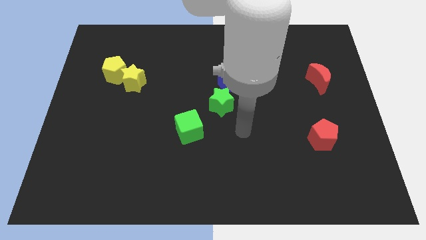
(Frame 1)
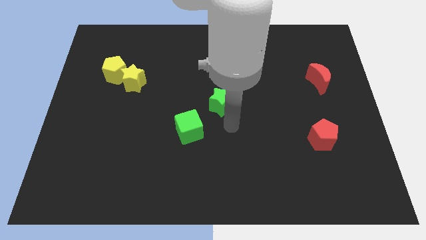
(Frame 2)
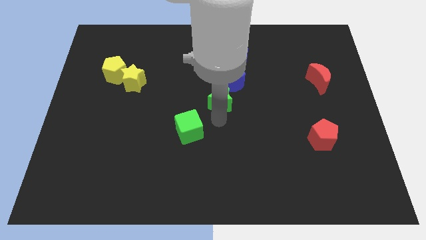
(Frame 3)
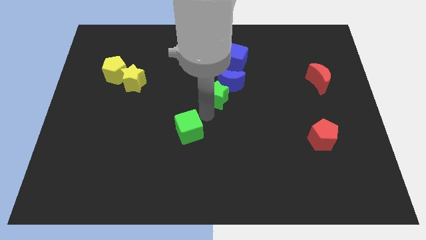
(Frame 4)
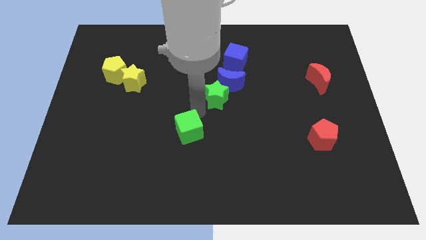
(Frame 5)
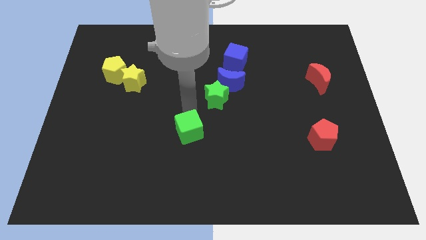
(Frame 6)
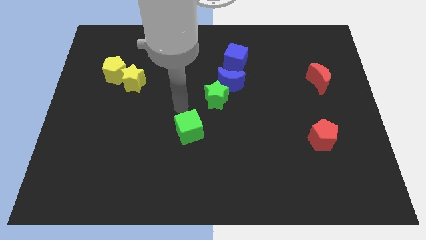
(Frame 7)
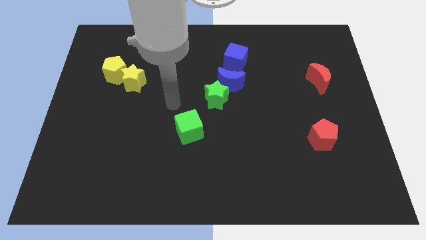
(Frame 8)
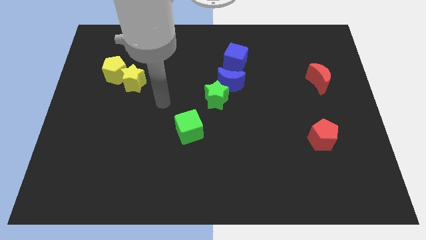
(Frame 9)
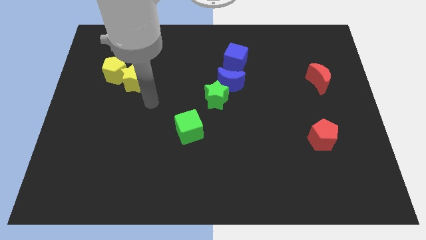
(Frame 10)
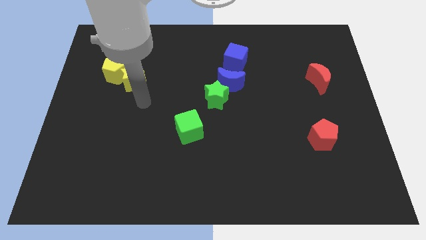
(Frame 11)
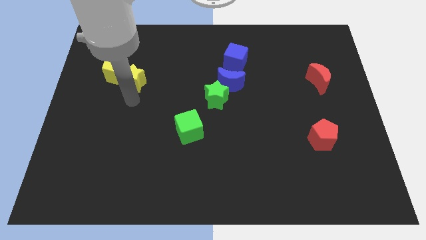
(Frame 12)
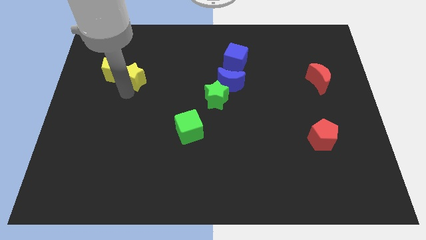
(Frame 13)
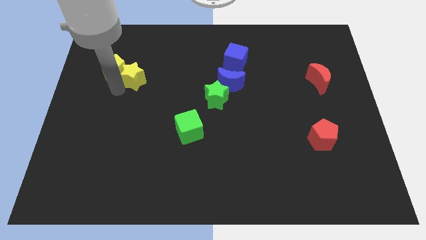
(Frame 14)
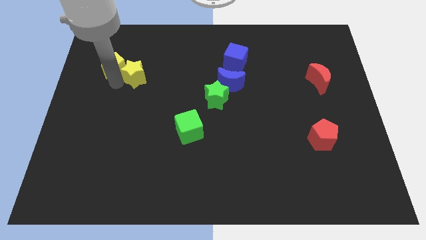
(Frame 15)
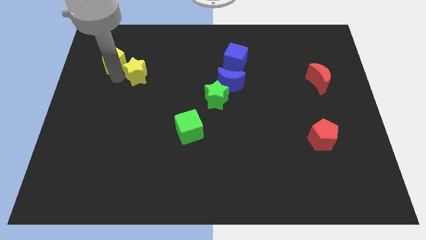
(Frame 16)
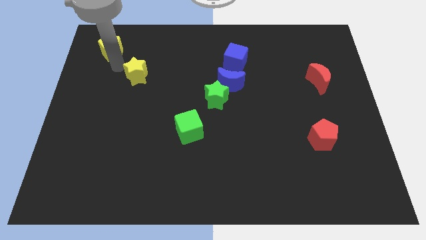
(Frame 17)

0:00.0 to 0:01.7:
pull the yellow star apart from the yellow pentagon

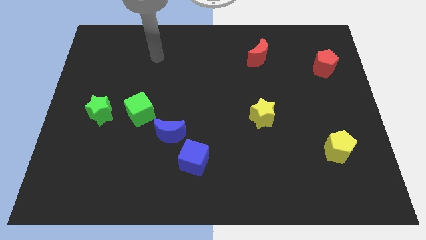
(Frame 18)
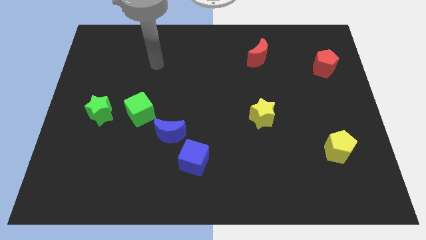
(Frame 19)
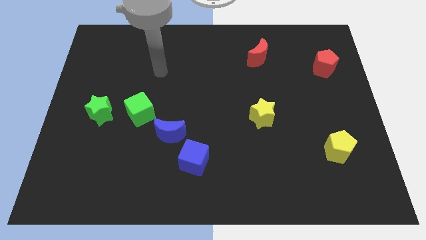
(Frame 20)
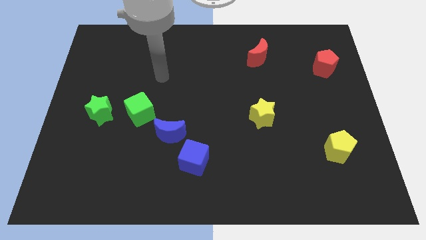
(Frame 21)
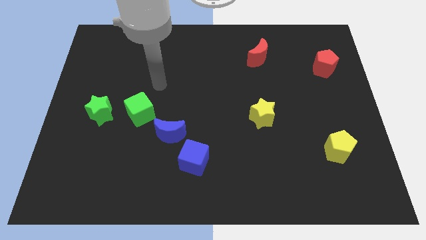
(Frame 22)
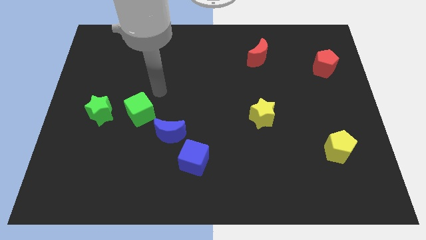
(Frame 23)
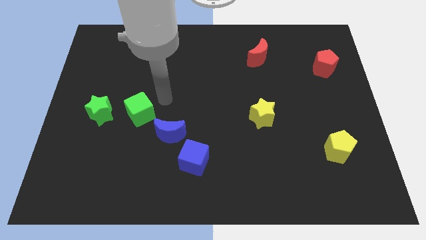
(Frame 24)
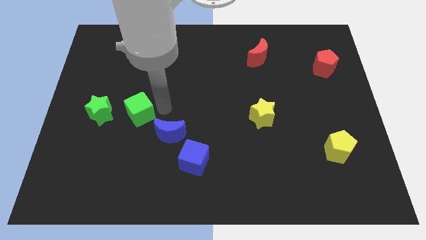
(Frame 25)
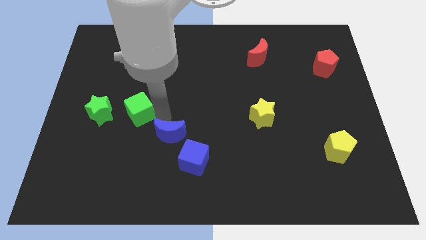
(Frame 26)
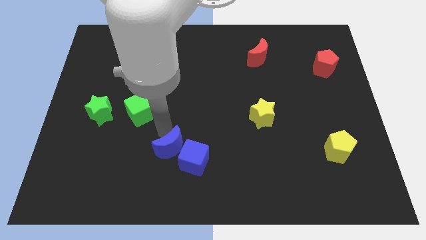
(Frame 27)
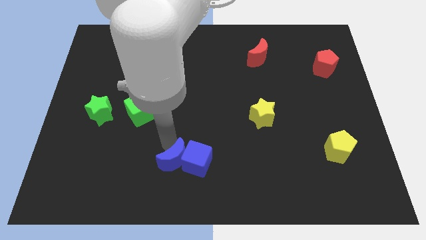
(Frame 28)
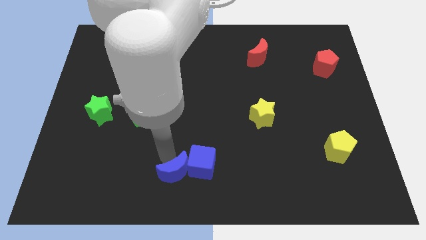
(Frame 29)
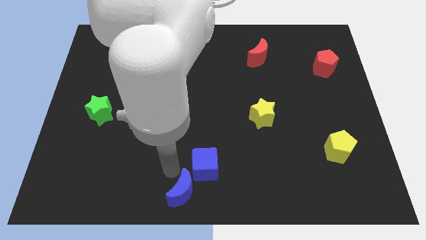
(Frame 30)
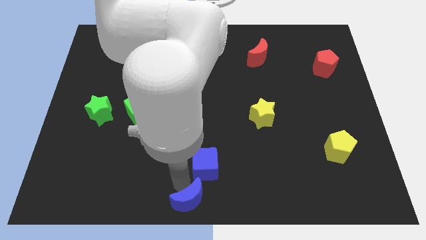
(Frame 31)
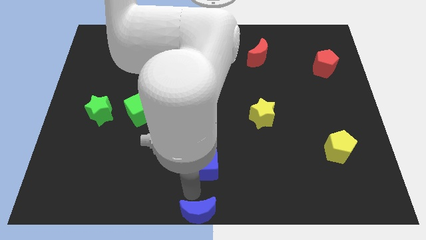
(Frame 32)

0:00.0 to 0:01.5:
move the blue cube away from the blue moon

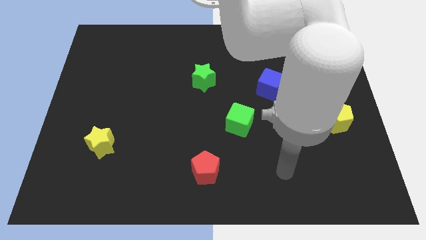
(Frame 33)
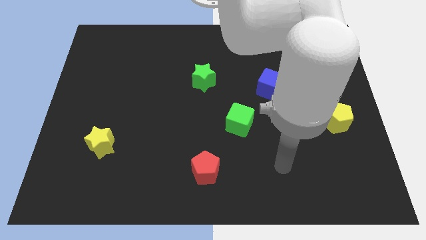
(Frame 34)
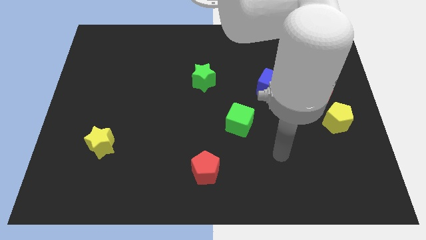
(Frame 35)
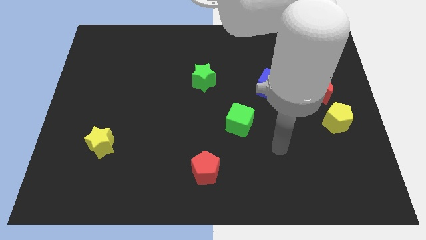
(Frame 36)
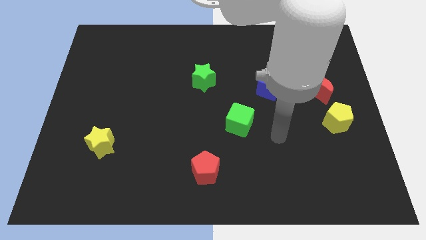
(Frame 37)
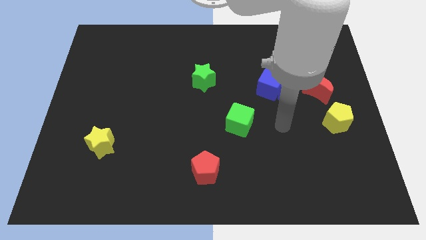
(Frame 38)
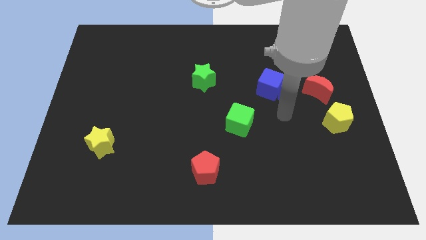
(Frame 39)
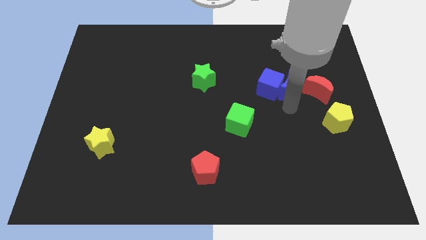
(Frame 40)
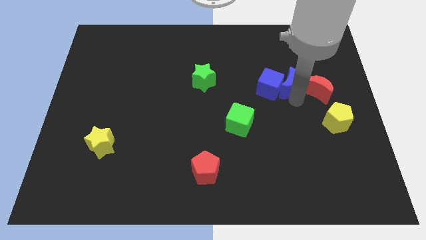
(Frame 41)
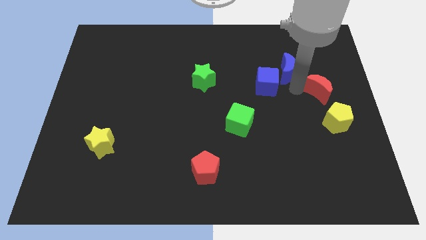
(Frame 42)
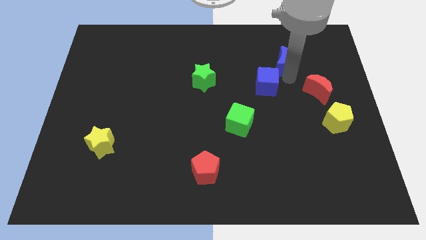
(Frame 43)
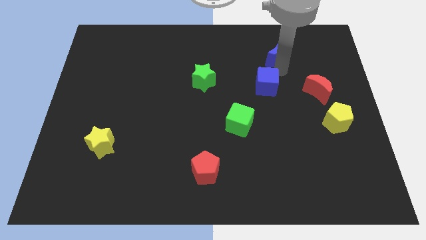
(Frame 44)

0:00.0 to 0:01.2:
separate the blue cube from the blue moon

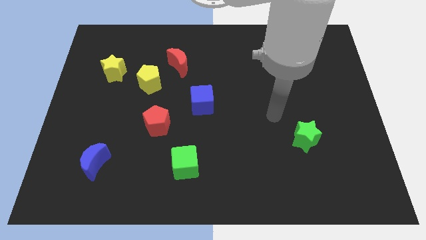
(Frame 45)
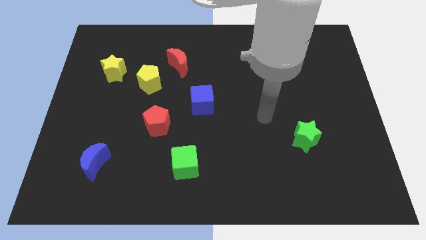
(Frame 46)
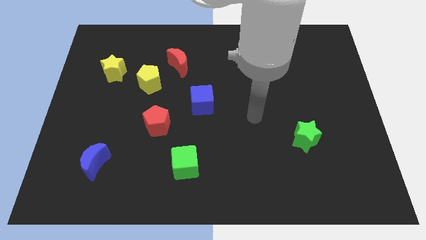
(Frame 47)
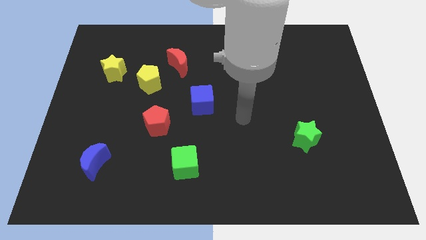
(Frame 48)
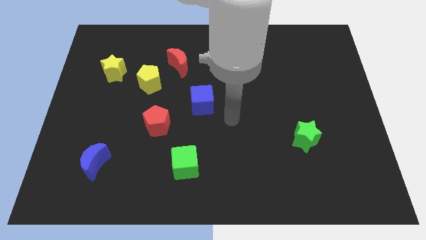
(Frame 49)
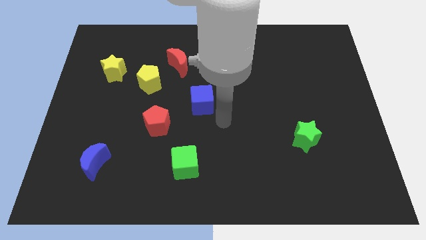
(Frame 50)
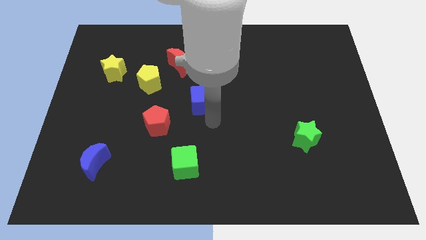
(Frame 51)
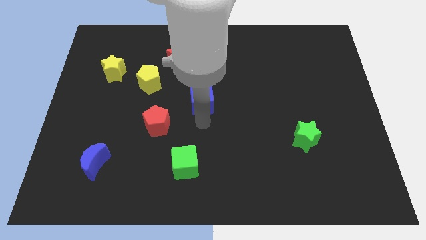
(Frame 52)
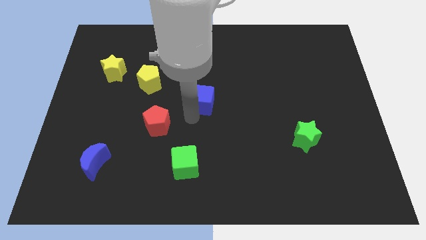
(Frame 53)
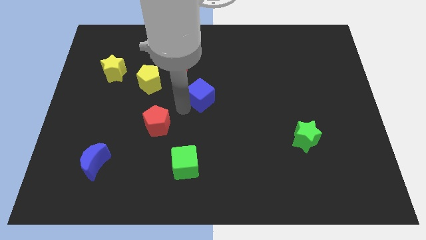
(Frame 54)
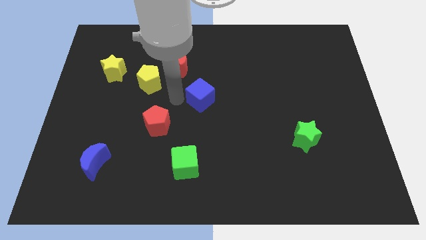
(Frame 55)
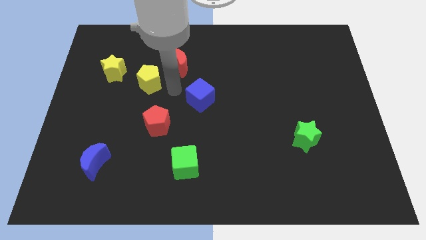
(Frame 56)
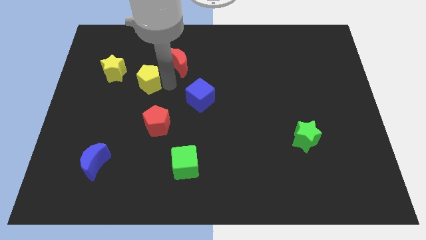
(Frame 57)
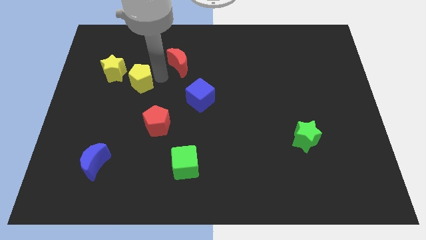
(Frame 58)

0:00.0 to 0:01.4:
move the red moon away from the yellow pentagon

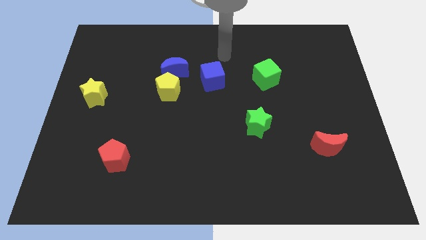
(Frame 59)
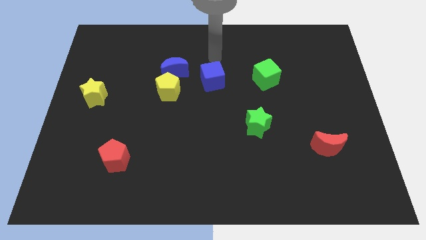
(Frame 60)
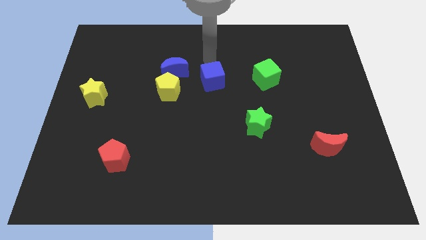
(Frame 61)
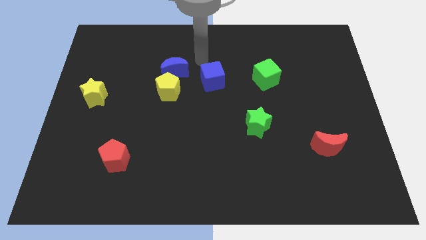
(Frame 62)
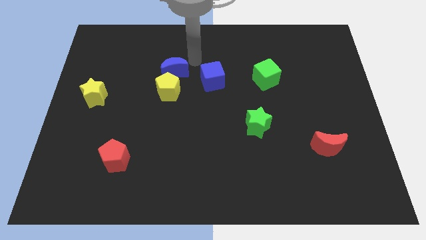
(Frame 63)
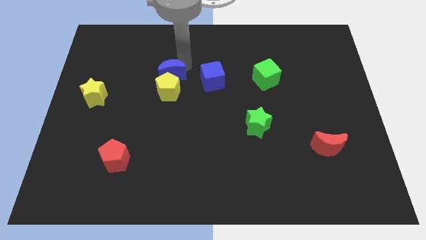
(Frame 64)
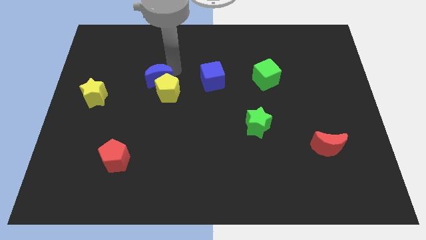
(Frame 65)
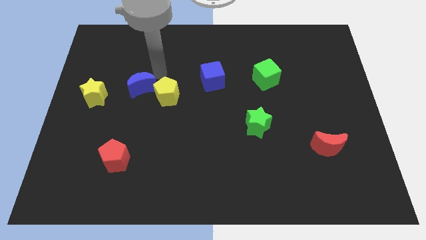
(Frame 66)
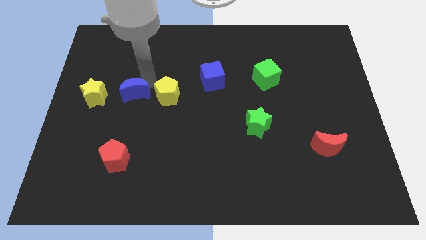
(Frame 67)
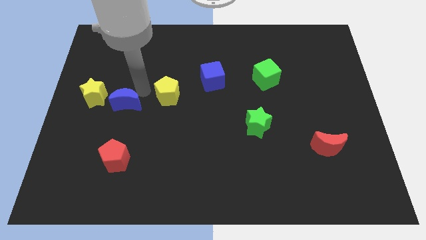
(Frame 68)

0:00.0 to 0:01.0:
pull the yellow pentagon apart from the blue moon

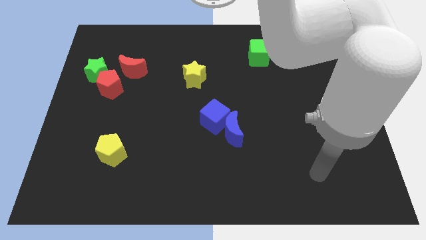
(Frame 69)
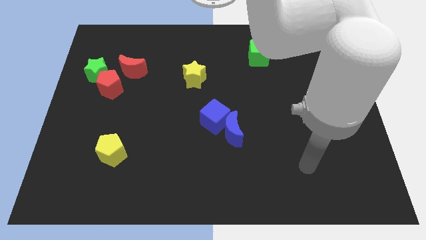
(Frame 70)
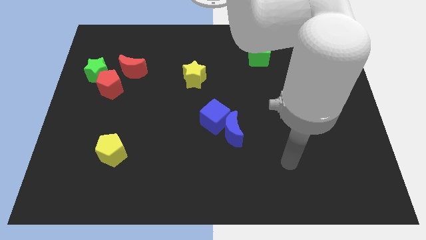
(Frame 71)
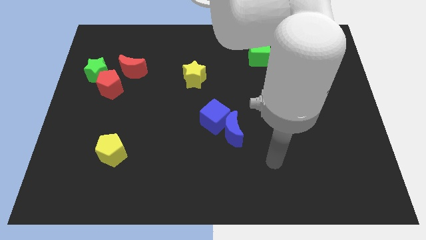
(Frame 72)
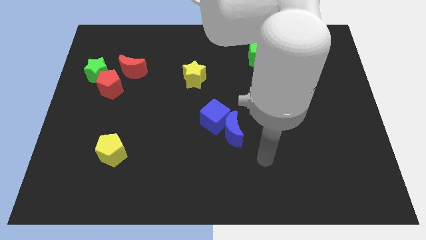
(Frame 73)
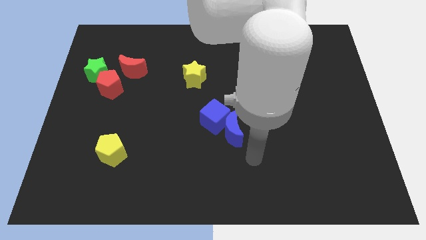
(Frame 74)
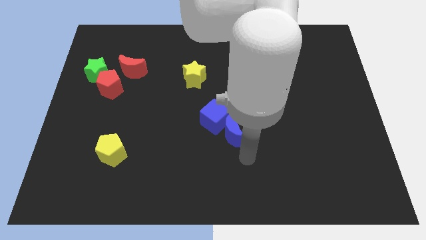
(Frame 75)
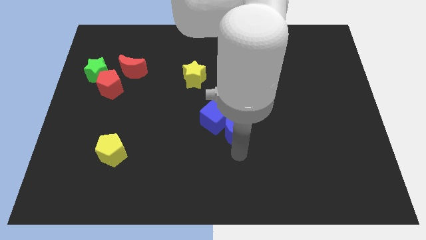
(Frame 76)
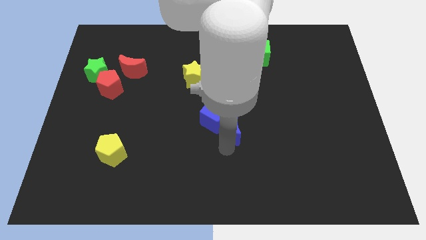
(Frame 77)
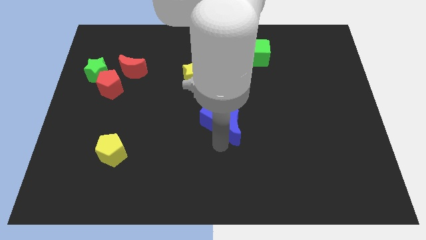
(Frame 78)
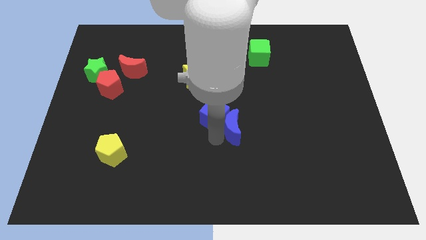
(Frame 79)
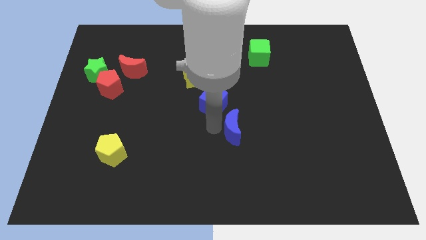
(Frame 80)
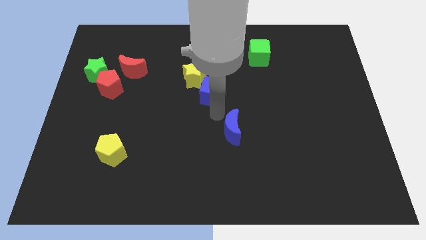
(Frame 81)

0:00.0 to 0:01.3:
pull the blue moon apart from the blue cube

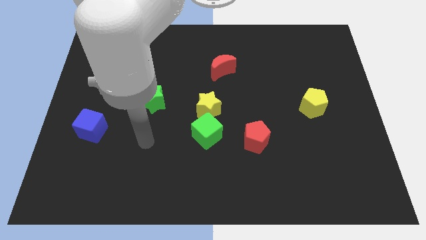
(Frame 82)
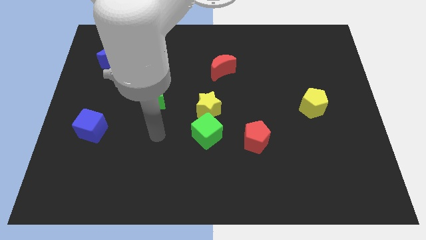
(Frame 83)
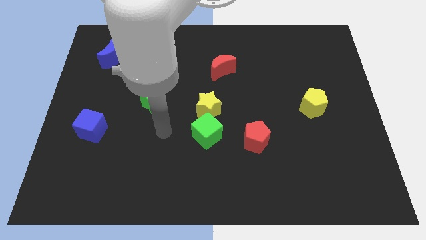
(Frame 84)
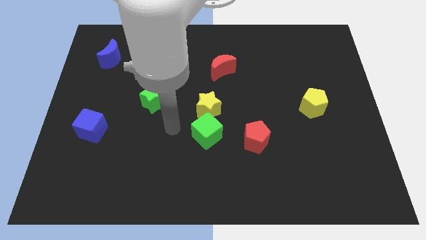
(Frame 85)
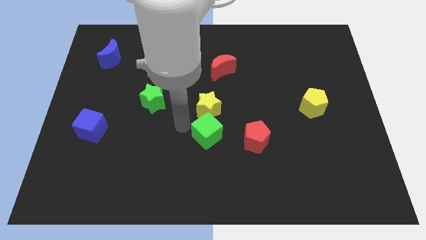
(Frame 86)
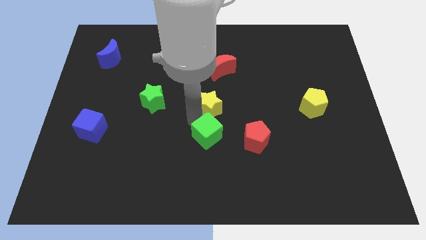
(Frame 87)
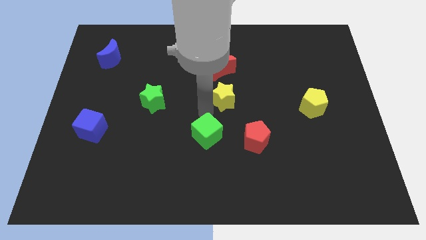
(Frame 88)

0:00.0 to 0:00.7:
pull the green cube apart from the yellow star

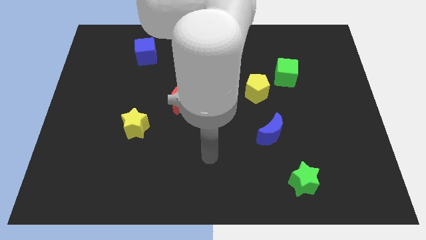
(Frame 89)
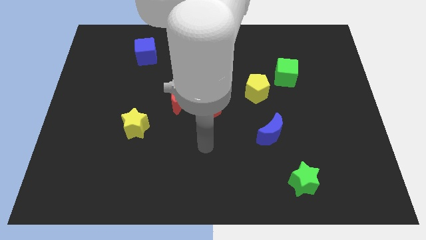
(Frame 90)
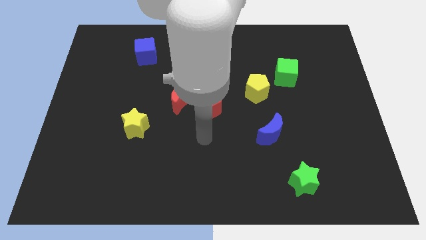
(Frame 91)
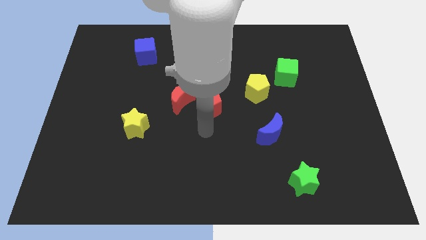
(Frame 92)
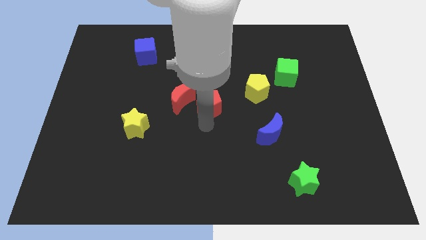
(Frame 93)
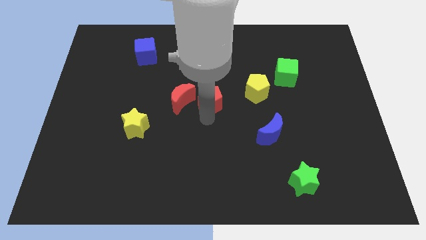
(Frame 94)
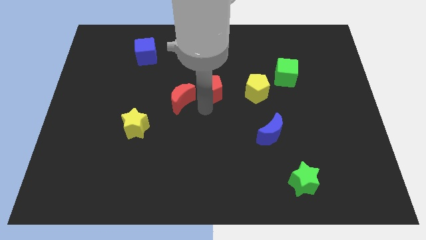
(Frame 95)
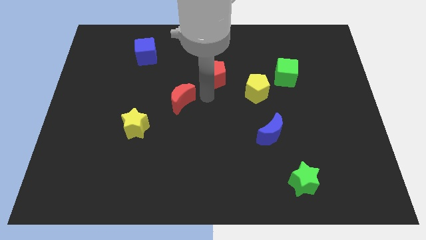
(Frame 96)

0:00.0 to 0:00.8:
separate the red moon from the red pentagon
